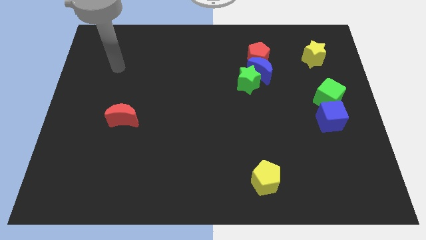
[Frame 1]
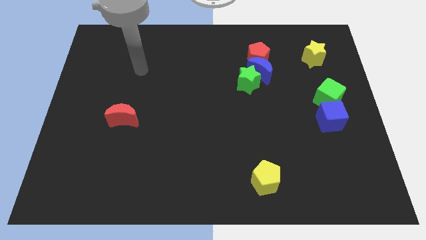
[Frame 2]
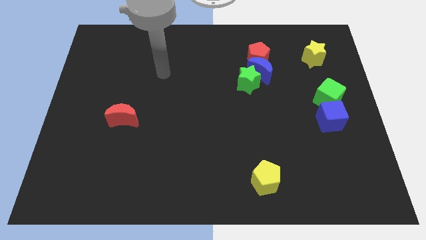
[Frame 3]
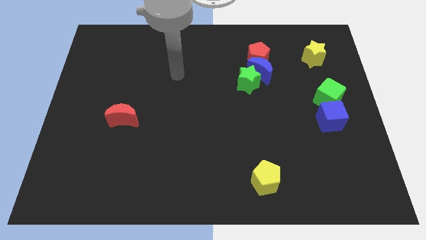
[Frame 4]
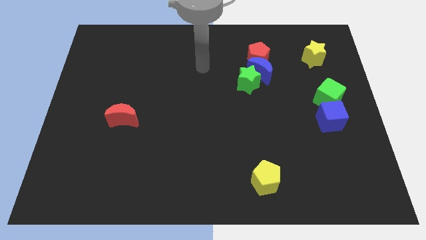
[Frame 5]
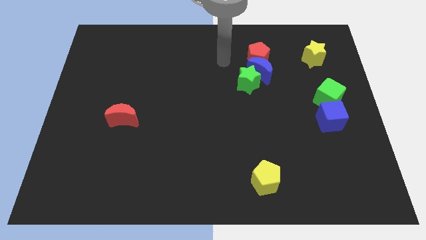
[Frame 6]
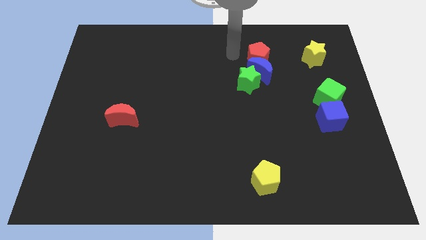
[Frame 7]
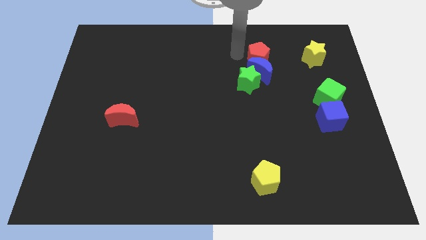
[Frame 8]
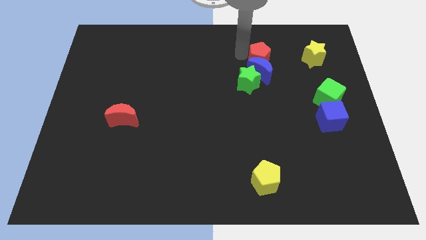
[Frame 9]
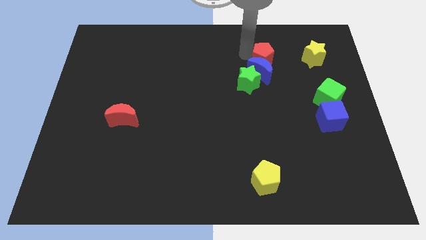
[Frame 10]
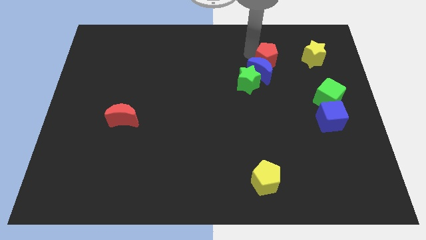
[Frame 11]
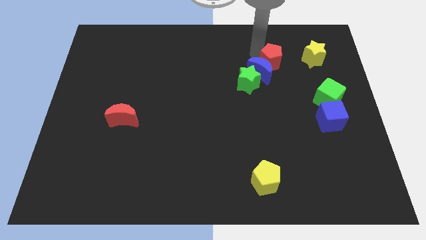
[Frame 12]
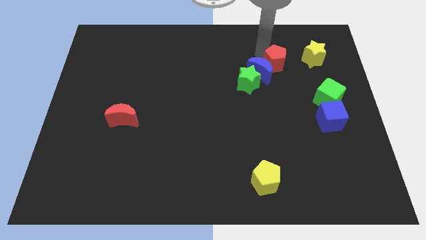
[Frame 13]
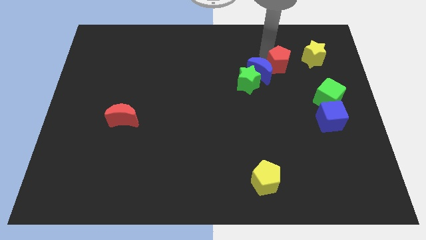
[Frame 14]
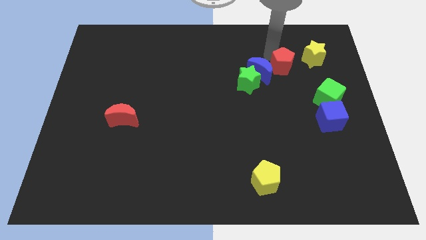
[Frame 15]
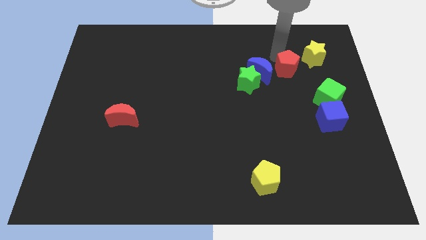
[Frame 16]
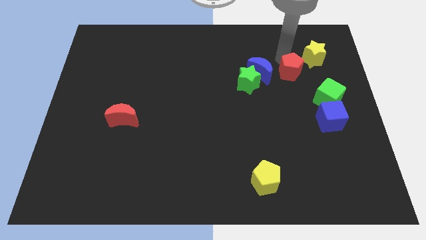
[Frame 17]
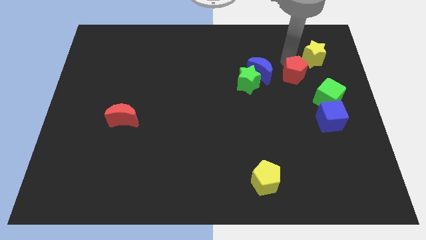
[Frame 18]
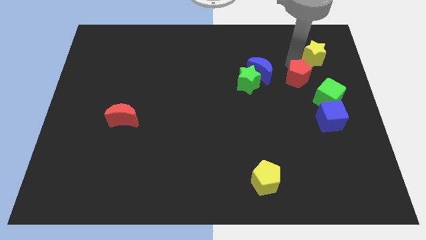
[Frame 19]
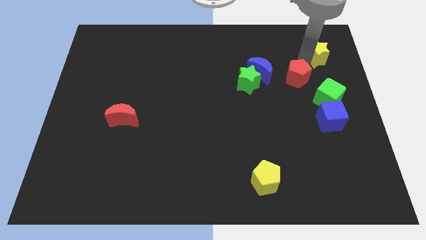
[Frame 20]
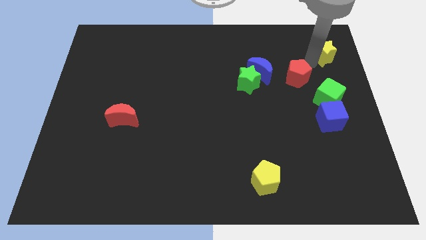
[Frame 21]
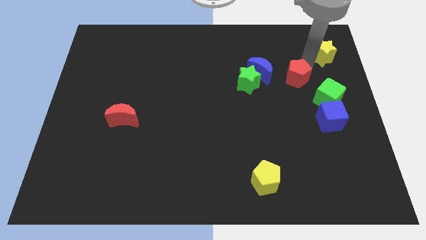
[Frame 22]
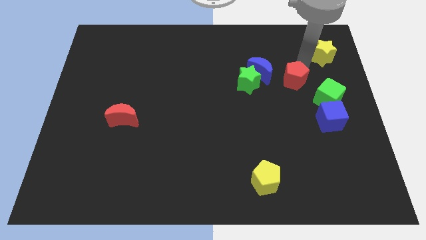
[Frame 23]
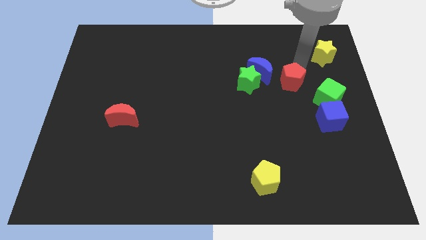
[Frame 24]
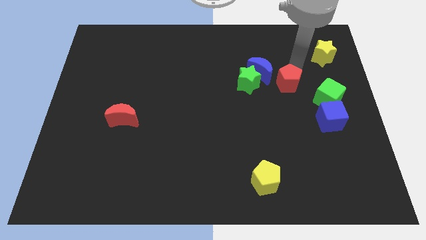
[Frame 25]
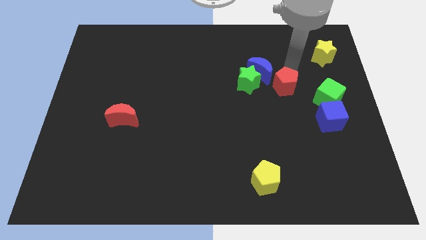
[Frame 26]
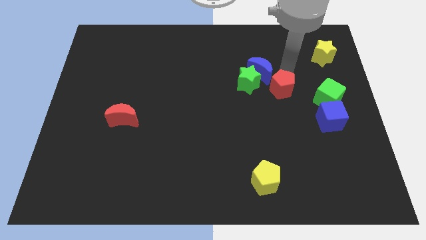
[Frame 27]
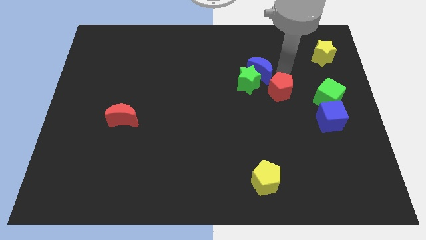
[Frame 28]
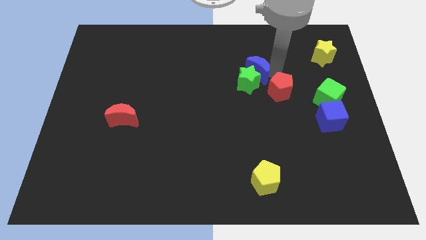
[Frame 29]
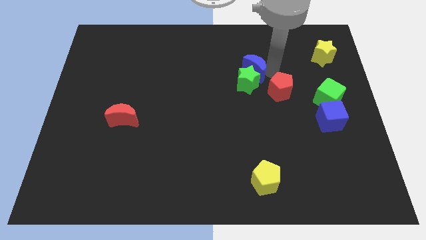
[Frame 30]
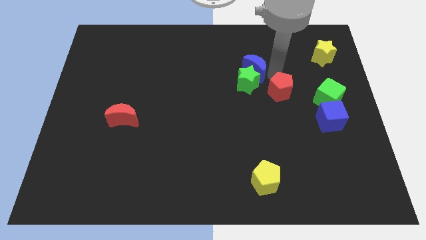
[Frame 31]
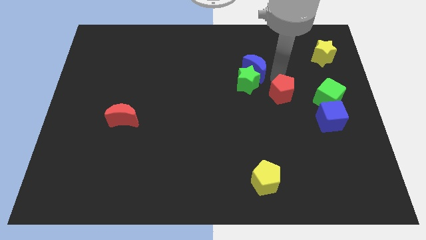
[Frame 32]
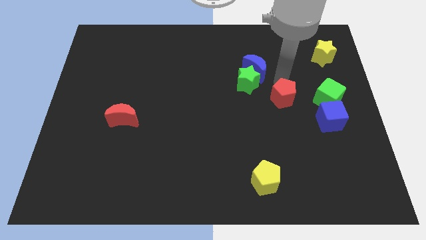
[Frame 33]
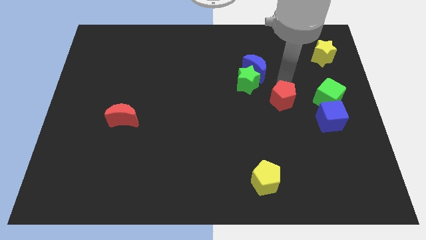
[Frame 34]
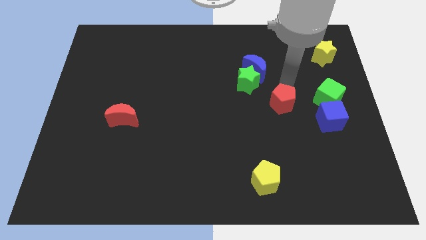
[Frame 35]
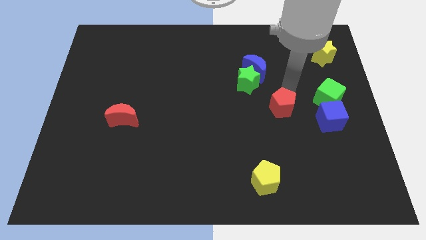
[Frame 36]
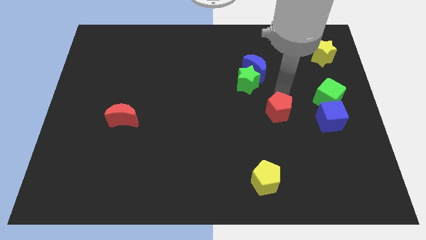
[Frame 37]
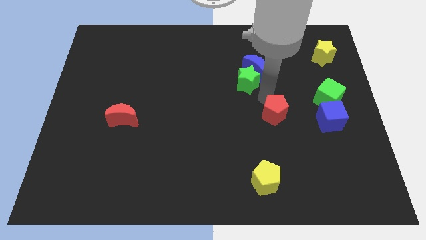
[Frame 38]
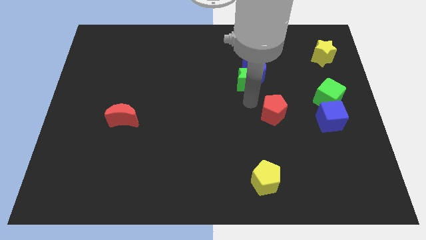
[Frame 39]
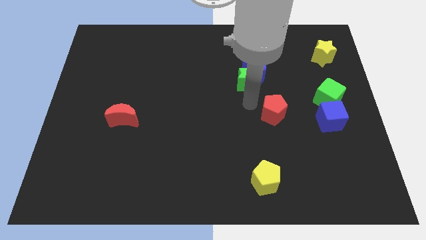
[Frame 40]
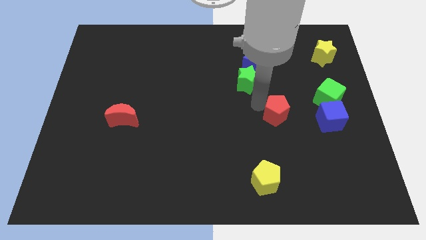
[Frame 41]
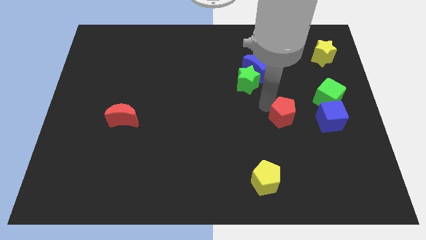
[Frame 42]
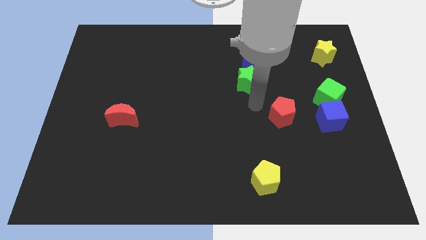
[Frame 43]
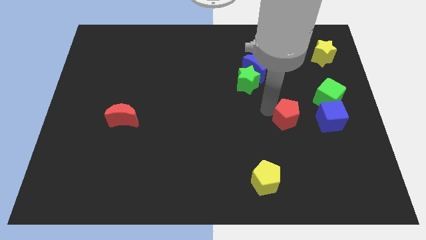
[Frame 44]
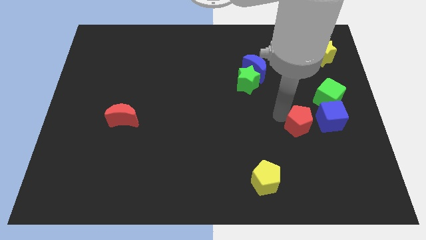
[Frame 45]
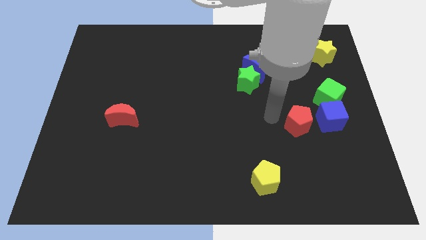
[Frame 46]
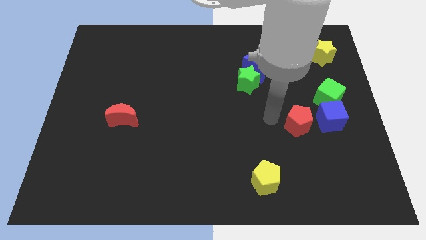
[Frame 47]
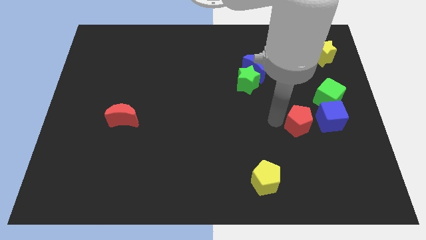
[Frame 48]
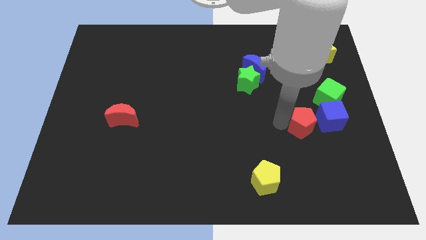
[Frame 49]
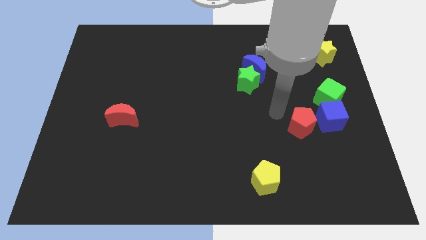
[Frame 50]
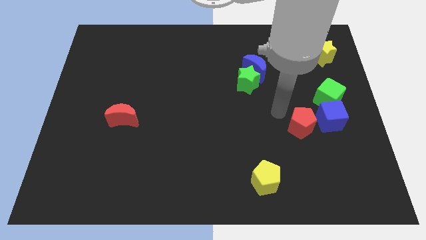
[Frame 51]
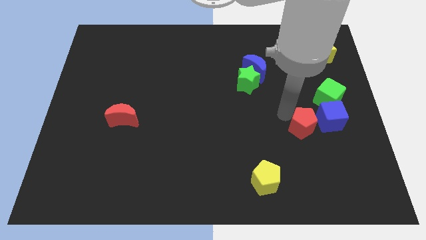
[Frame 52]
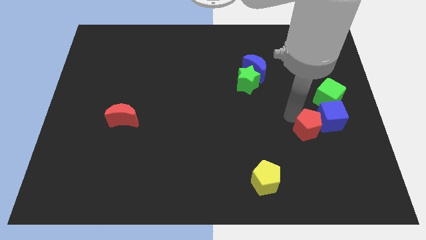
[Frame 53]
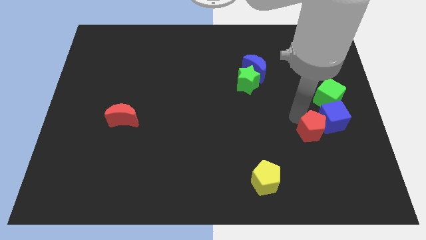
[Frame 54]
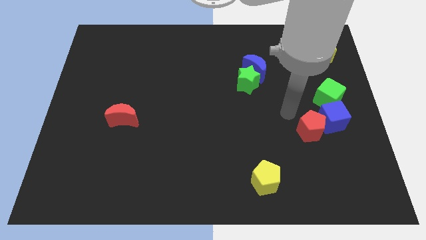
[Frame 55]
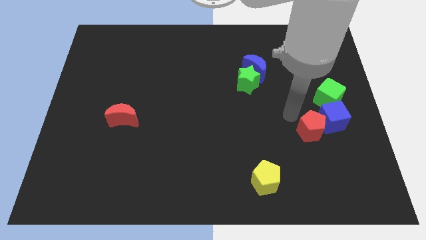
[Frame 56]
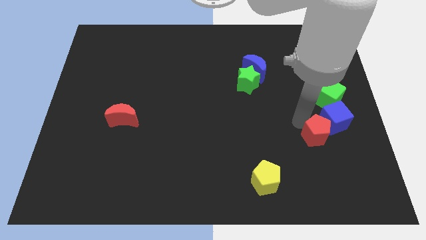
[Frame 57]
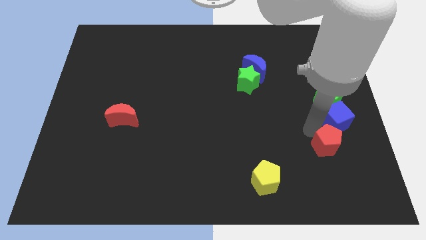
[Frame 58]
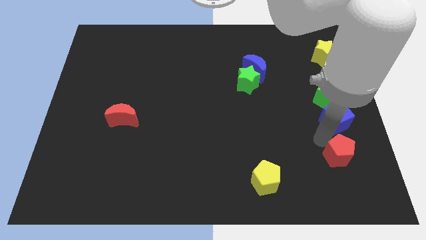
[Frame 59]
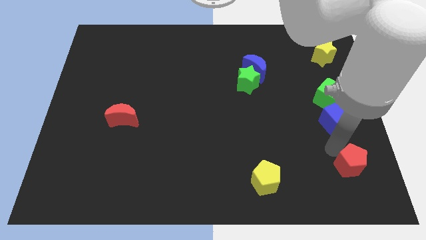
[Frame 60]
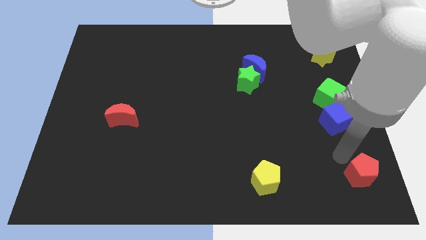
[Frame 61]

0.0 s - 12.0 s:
move the red pentagon to the bottom right of the board
